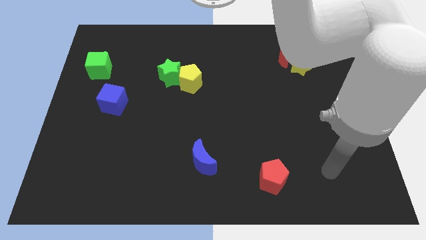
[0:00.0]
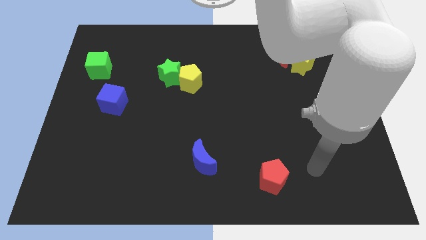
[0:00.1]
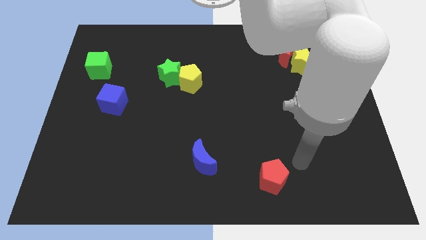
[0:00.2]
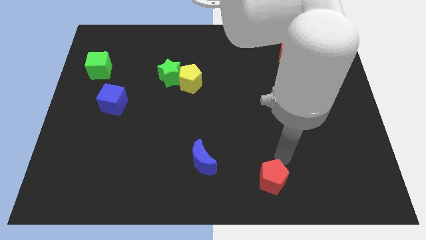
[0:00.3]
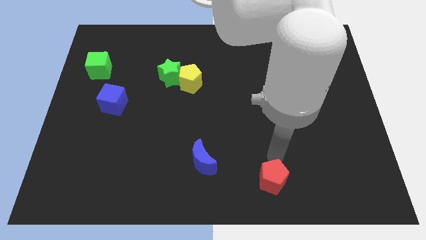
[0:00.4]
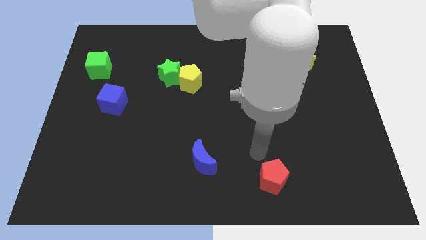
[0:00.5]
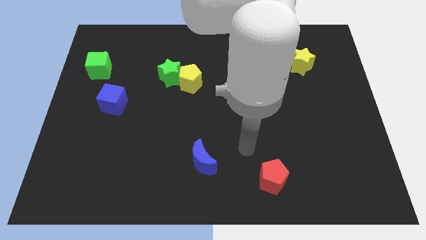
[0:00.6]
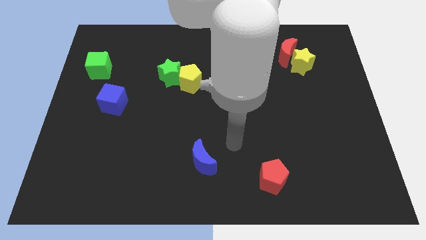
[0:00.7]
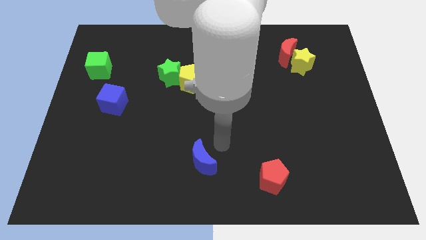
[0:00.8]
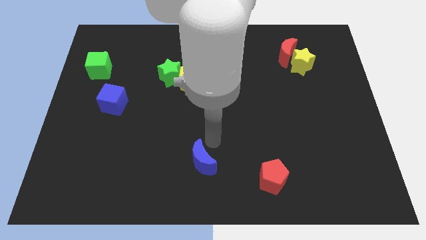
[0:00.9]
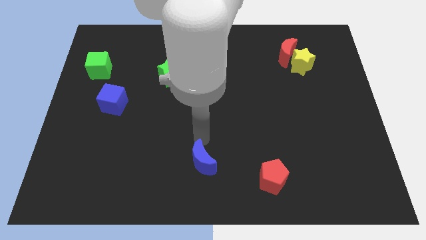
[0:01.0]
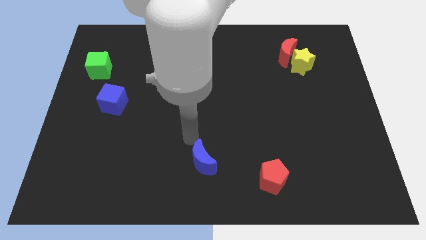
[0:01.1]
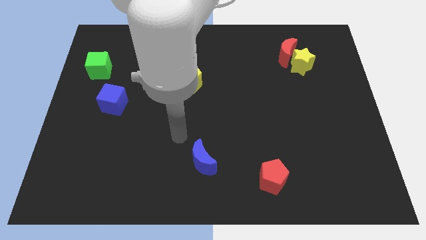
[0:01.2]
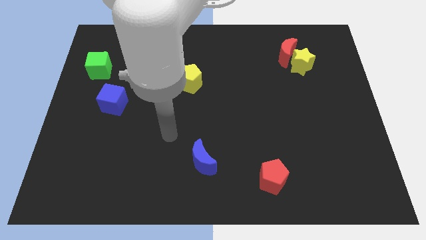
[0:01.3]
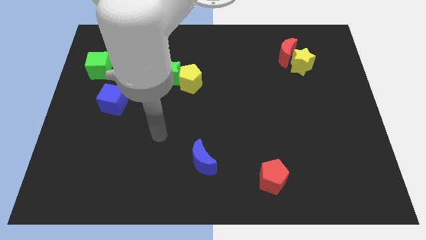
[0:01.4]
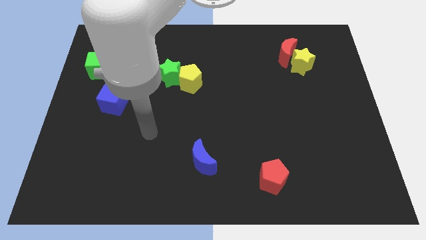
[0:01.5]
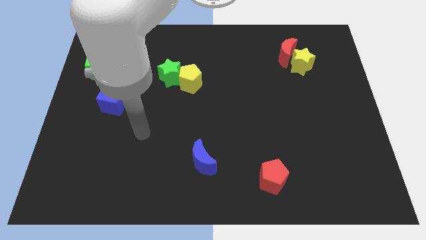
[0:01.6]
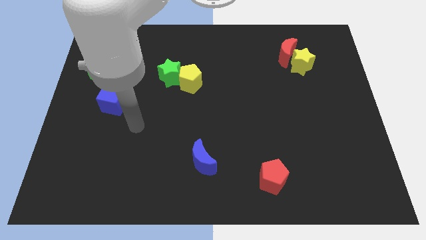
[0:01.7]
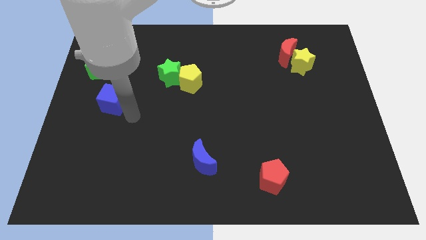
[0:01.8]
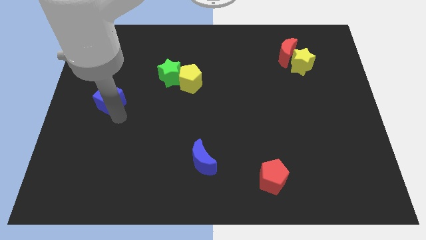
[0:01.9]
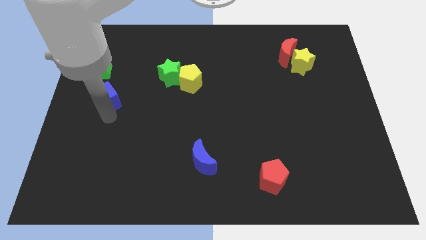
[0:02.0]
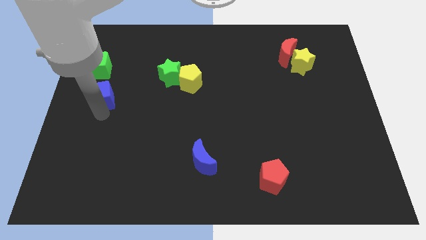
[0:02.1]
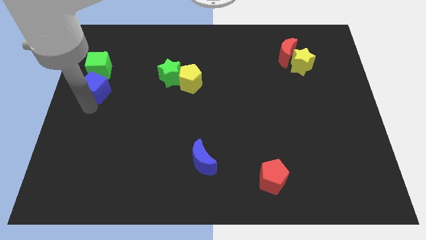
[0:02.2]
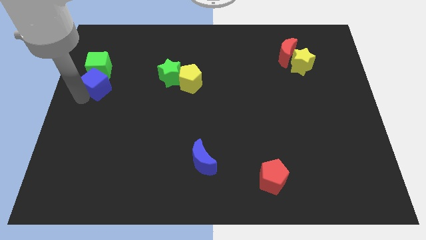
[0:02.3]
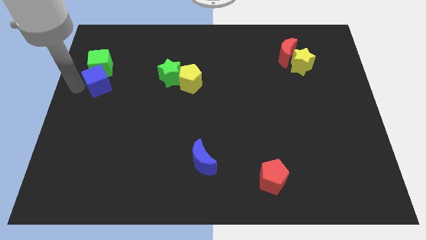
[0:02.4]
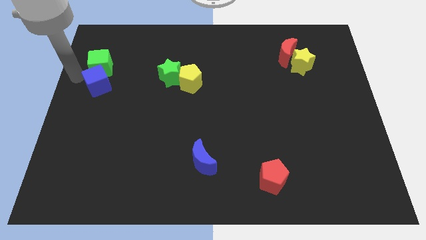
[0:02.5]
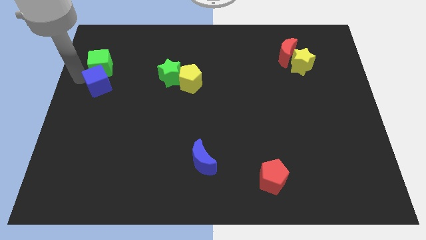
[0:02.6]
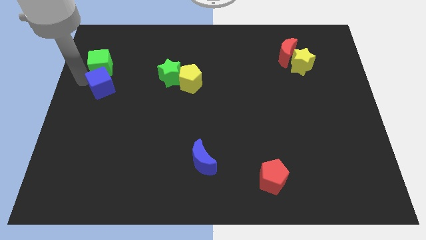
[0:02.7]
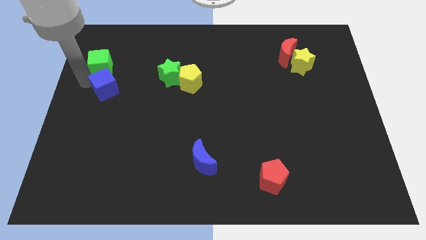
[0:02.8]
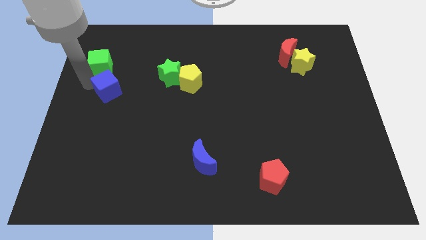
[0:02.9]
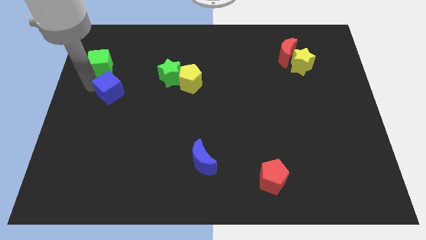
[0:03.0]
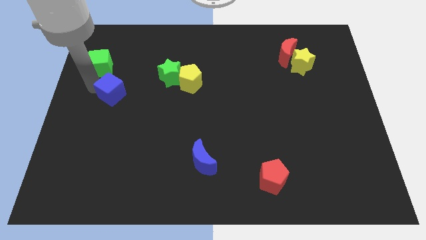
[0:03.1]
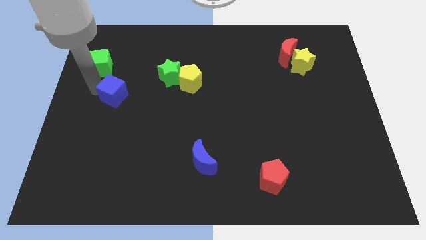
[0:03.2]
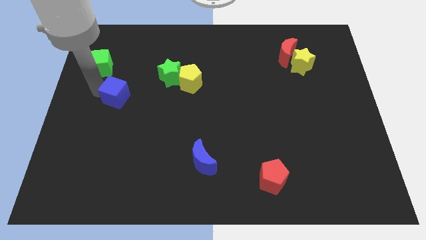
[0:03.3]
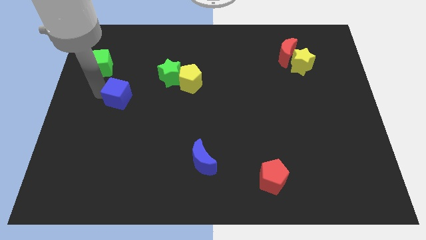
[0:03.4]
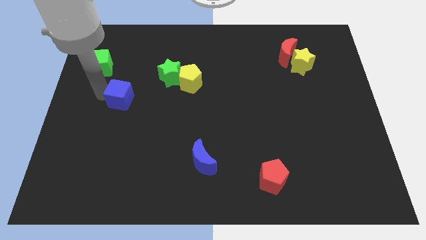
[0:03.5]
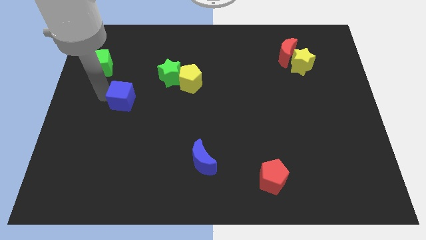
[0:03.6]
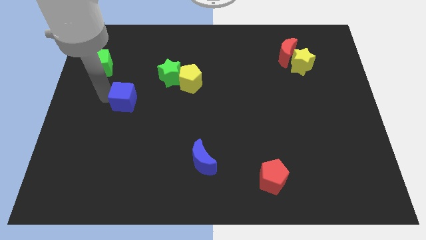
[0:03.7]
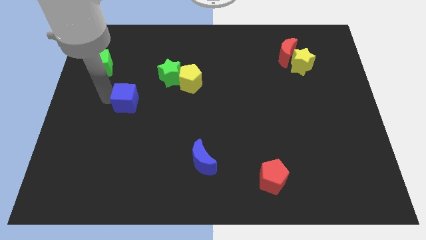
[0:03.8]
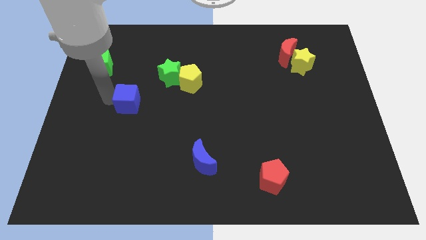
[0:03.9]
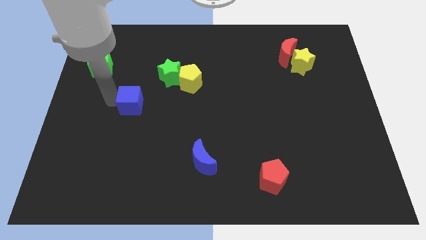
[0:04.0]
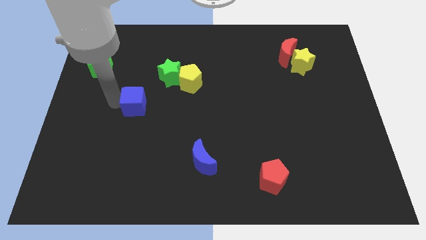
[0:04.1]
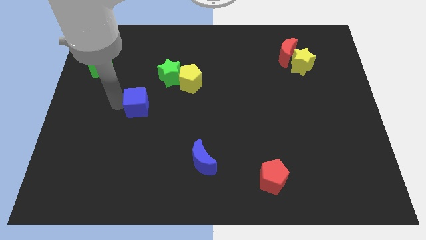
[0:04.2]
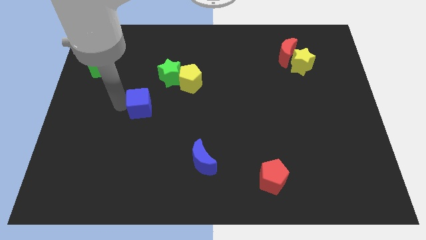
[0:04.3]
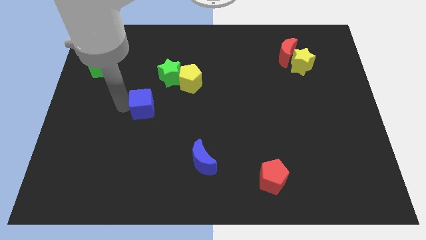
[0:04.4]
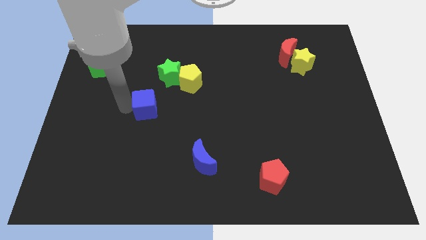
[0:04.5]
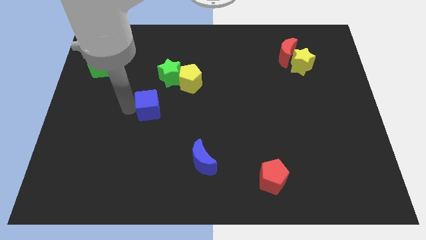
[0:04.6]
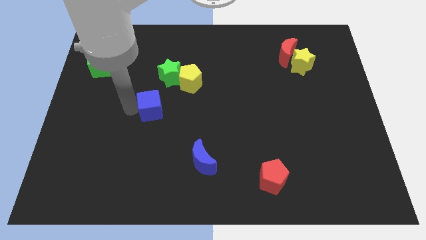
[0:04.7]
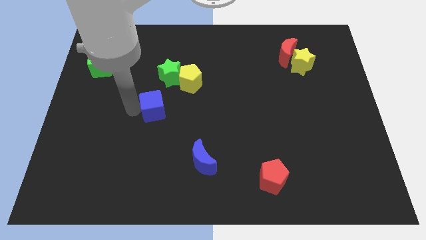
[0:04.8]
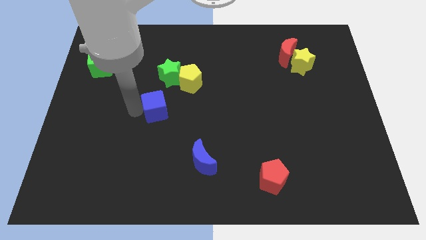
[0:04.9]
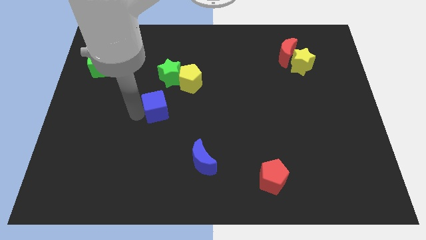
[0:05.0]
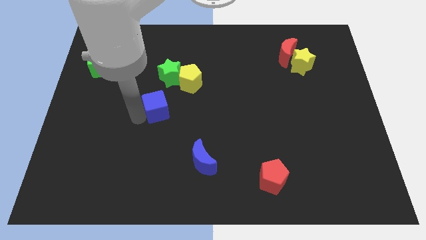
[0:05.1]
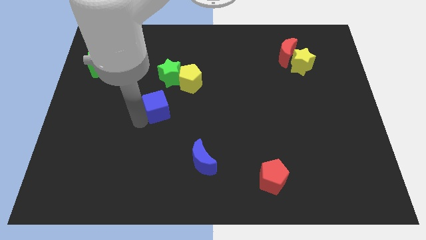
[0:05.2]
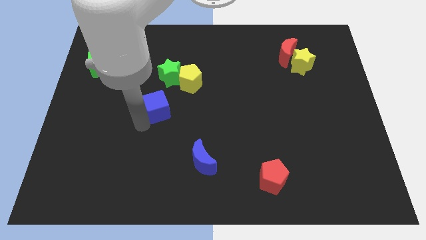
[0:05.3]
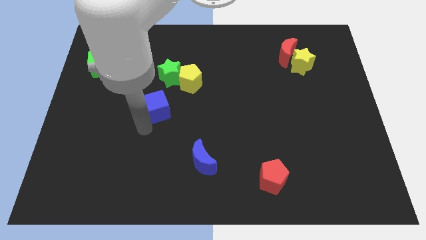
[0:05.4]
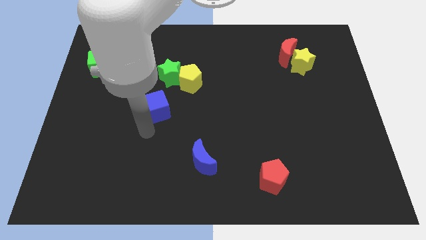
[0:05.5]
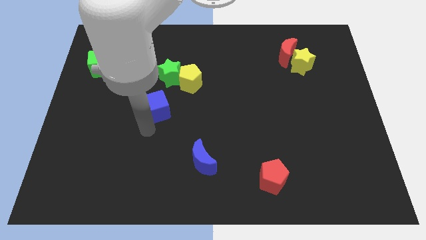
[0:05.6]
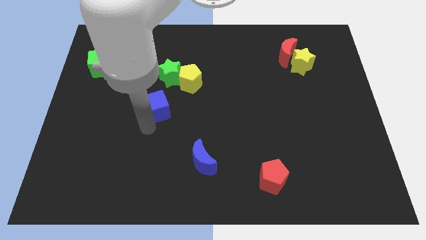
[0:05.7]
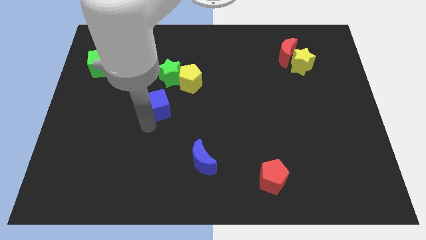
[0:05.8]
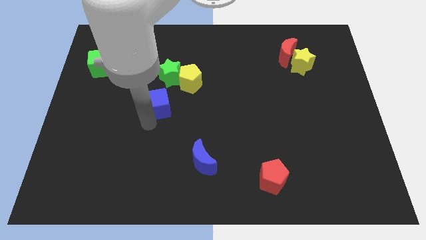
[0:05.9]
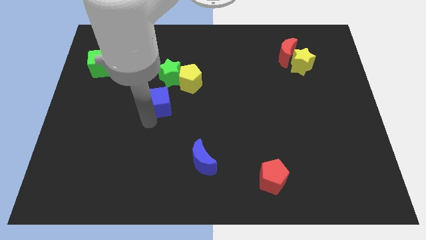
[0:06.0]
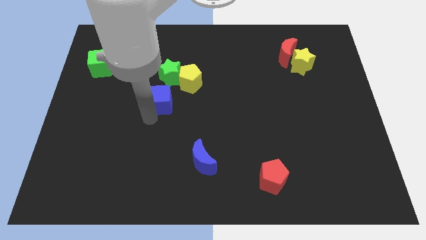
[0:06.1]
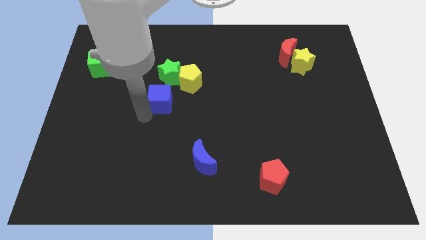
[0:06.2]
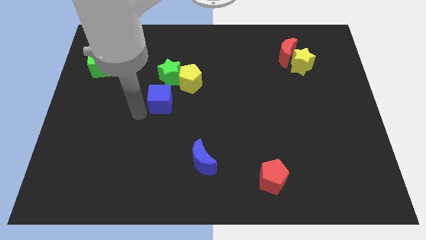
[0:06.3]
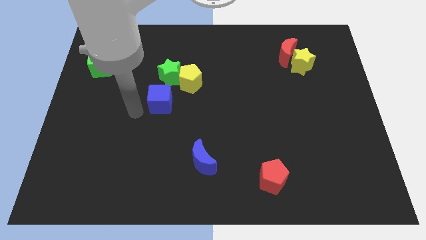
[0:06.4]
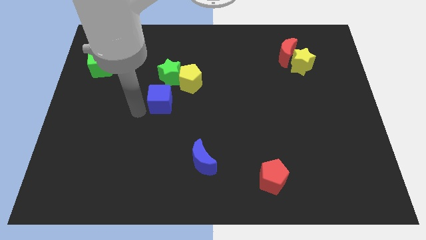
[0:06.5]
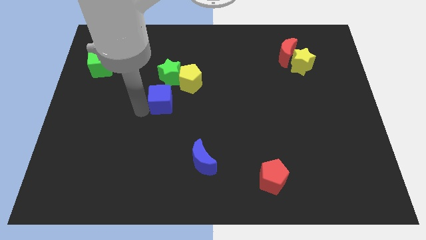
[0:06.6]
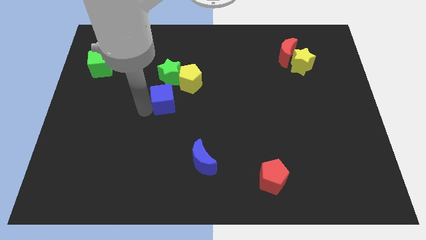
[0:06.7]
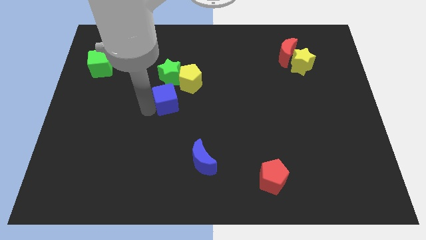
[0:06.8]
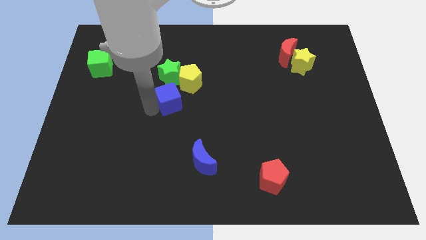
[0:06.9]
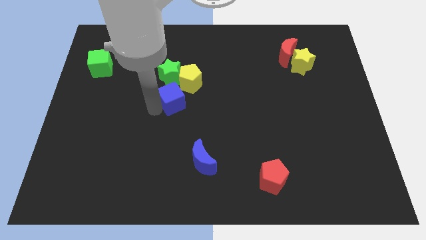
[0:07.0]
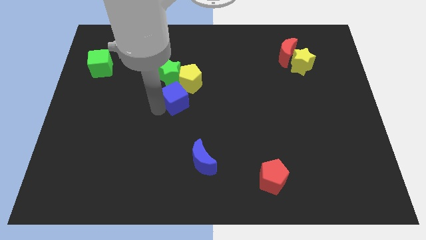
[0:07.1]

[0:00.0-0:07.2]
push the blue cube diagonally down and to the right of the green star
